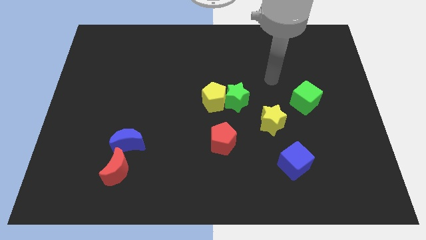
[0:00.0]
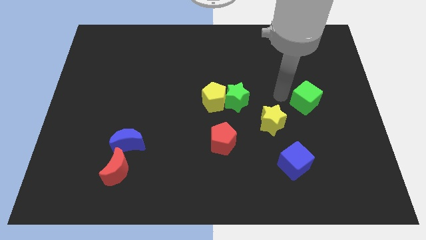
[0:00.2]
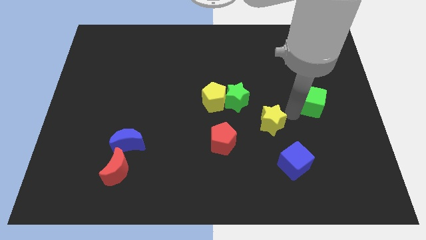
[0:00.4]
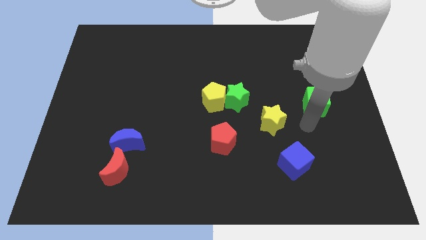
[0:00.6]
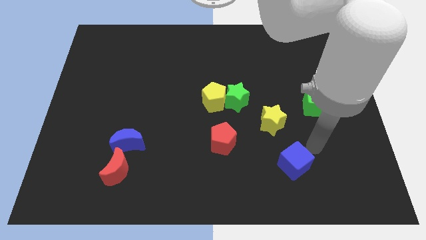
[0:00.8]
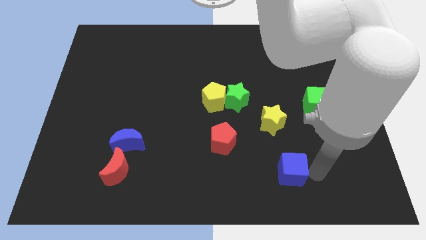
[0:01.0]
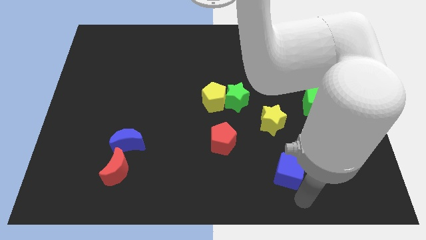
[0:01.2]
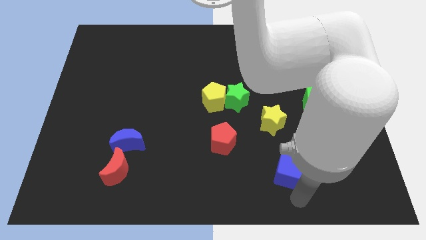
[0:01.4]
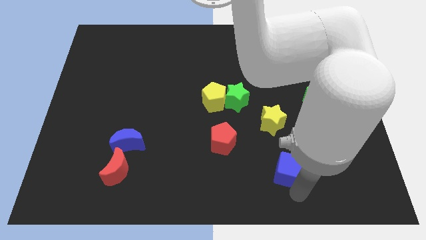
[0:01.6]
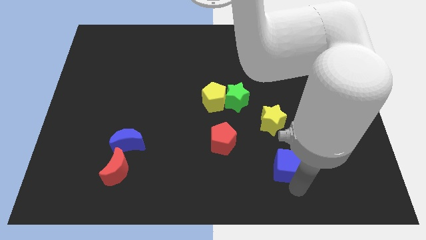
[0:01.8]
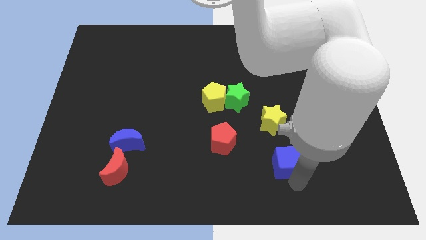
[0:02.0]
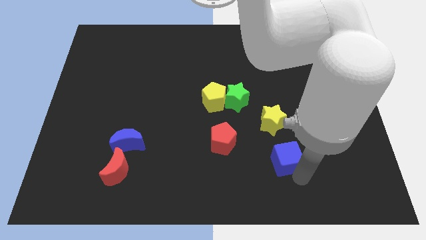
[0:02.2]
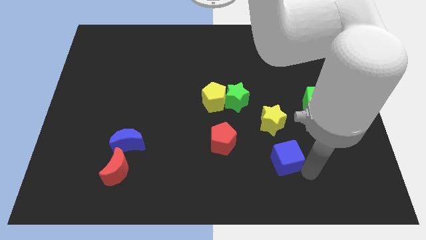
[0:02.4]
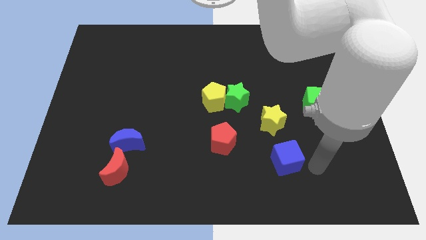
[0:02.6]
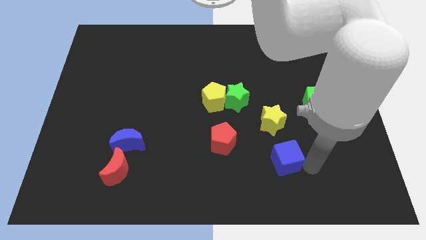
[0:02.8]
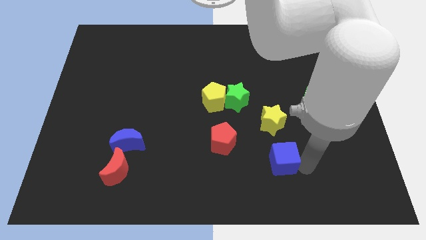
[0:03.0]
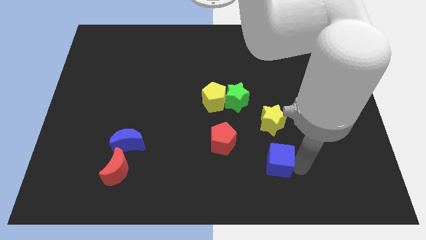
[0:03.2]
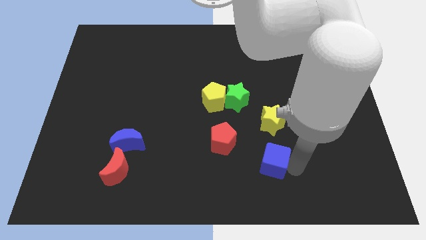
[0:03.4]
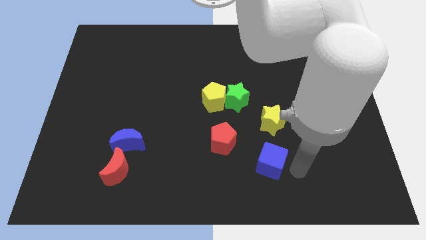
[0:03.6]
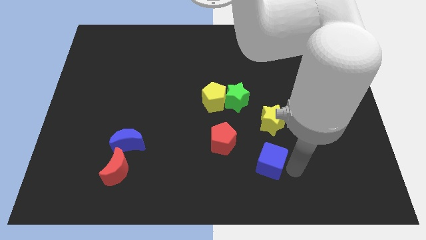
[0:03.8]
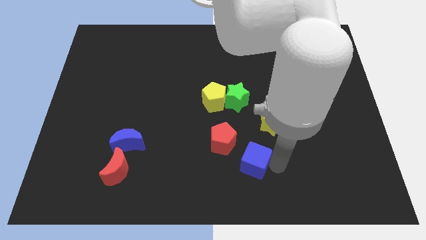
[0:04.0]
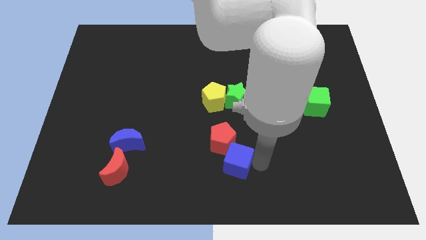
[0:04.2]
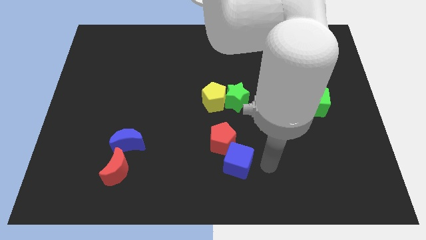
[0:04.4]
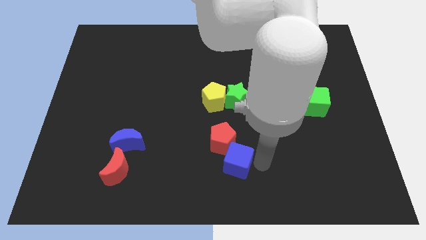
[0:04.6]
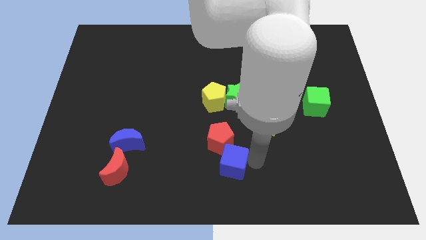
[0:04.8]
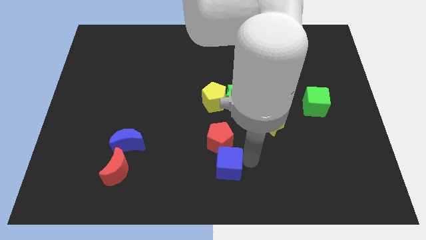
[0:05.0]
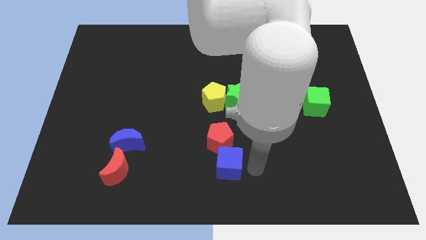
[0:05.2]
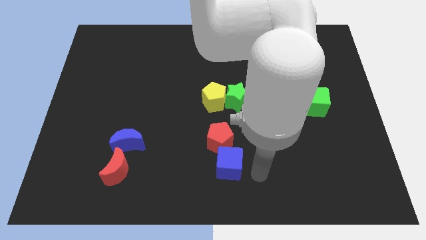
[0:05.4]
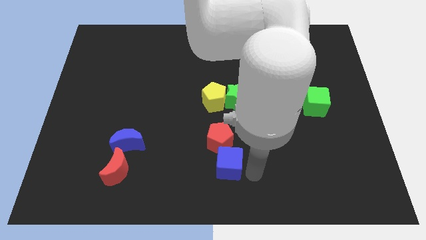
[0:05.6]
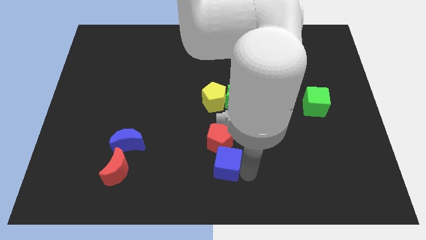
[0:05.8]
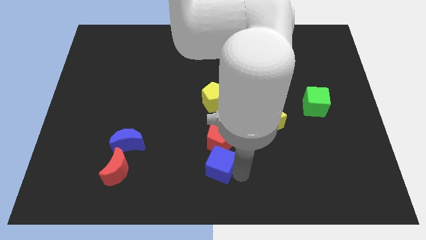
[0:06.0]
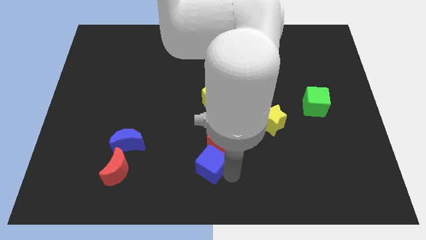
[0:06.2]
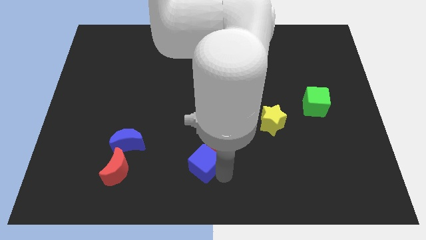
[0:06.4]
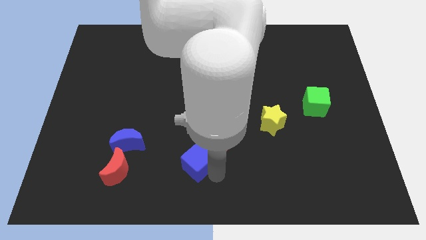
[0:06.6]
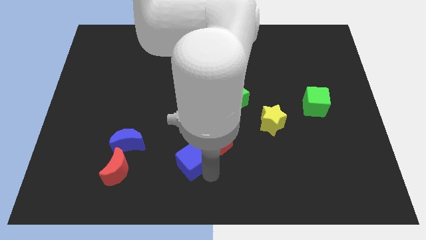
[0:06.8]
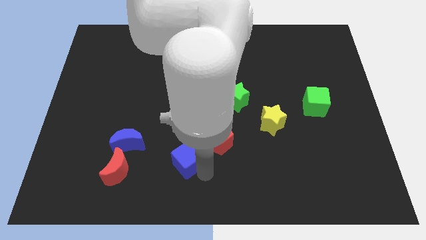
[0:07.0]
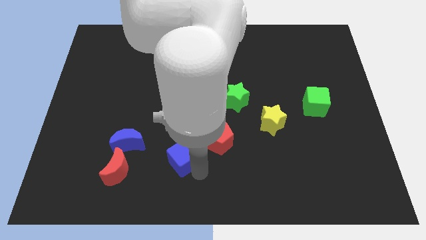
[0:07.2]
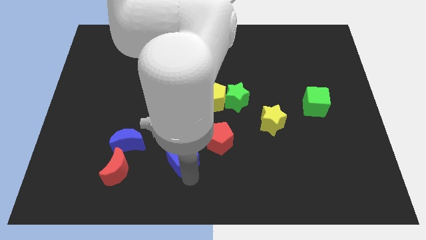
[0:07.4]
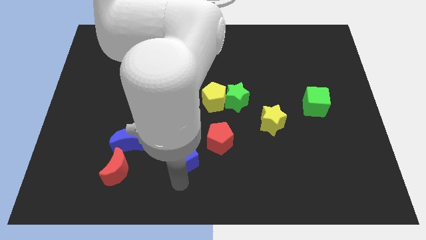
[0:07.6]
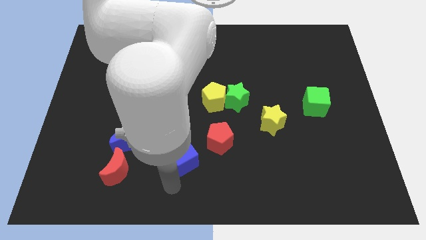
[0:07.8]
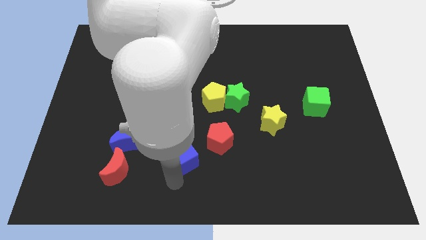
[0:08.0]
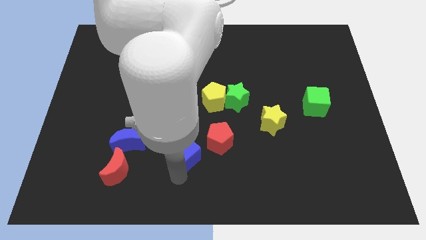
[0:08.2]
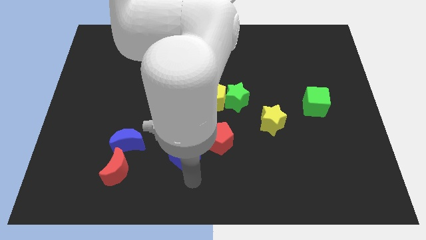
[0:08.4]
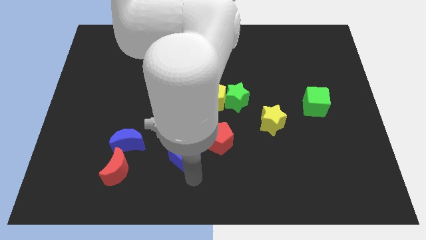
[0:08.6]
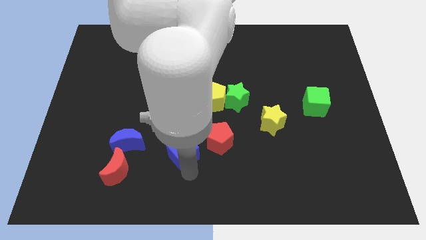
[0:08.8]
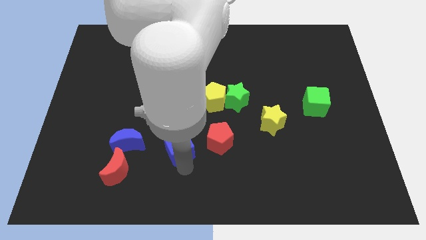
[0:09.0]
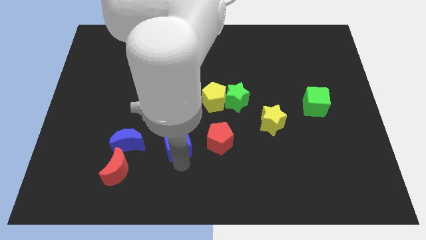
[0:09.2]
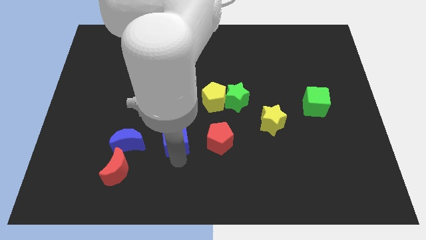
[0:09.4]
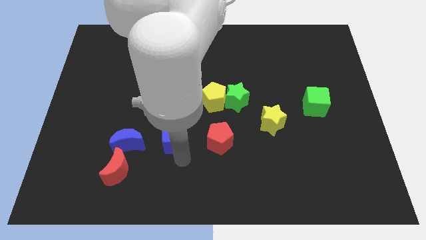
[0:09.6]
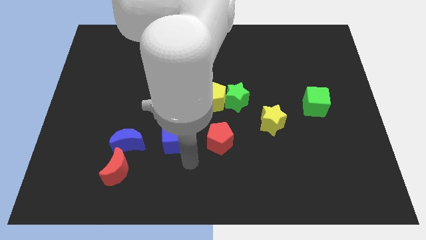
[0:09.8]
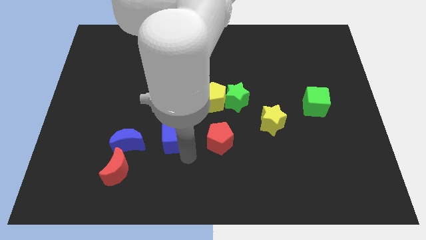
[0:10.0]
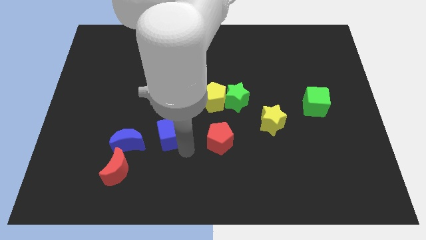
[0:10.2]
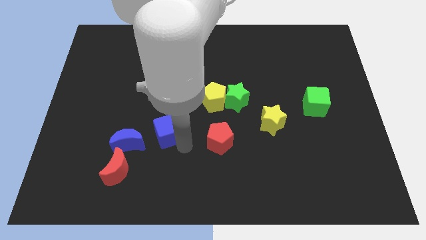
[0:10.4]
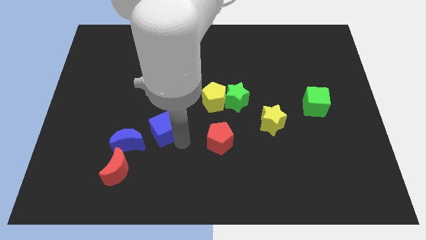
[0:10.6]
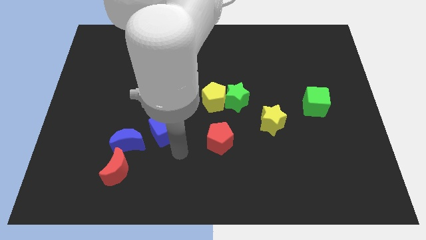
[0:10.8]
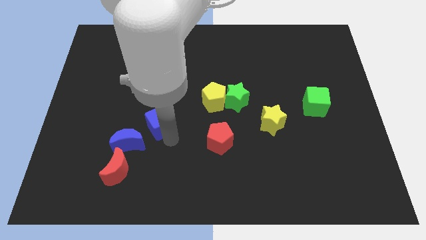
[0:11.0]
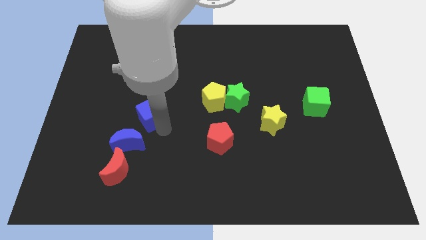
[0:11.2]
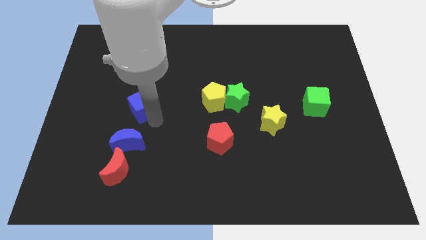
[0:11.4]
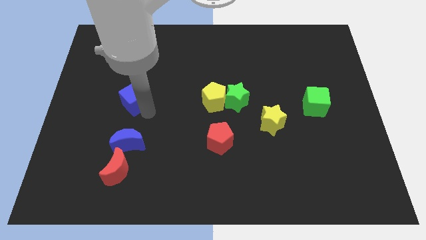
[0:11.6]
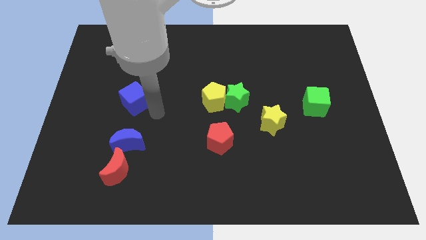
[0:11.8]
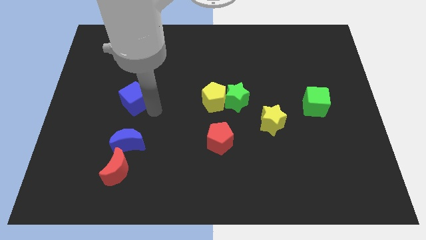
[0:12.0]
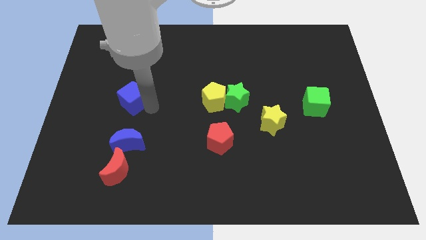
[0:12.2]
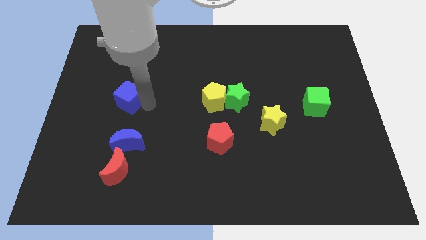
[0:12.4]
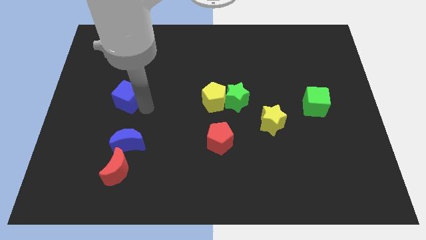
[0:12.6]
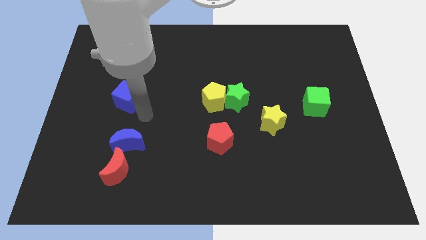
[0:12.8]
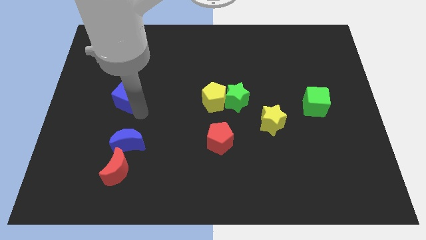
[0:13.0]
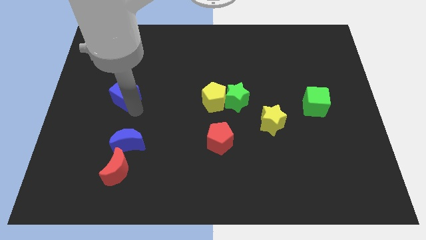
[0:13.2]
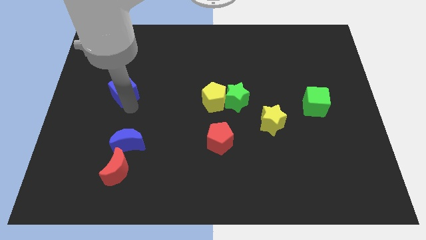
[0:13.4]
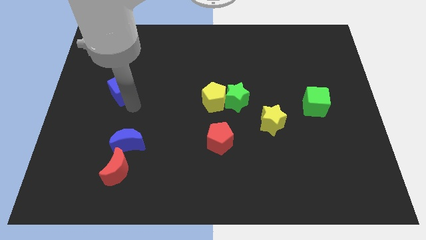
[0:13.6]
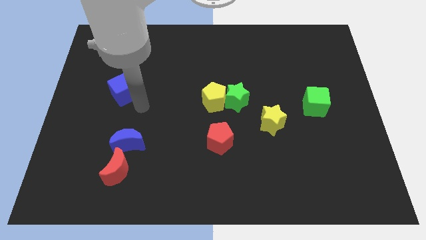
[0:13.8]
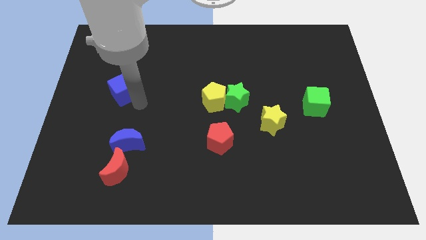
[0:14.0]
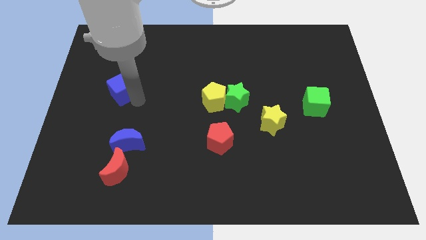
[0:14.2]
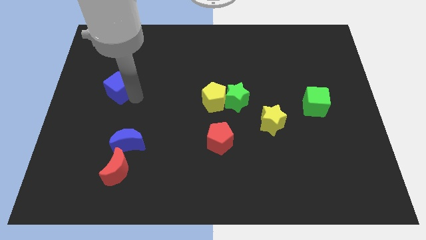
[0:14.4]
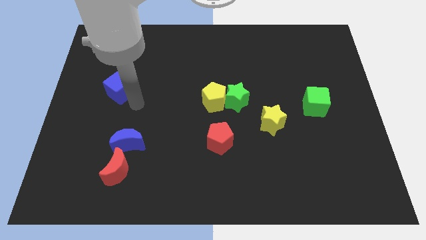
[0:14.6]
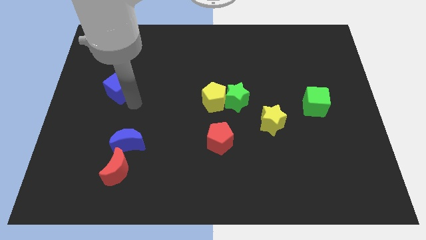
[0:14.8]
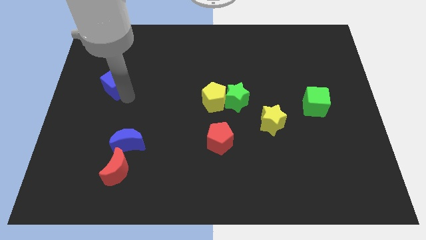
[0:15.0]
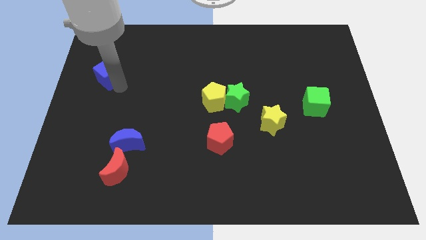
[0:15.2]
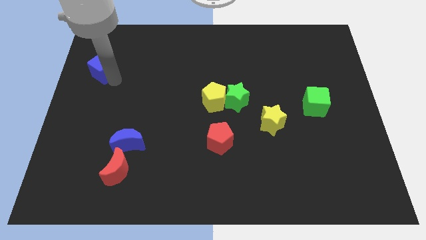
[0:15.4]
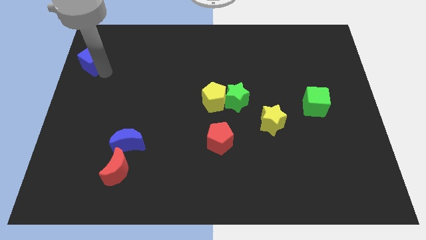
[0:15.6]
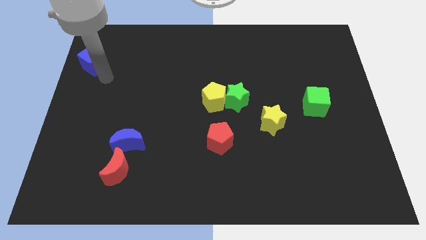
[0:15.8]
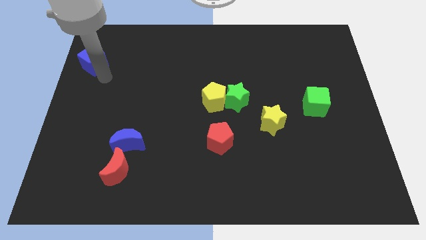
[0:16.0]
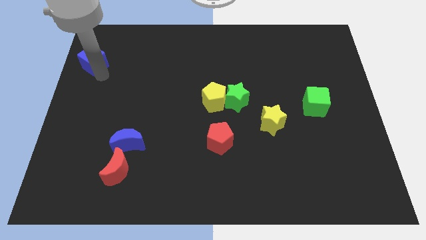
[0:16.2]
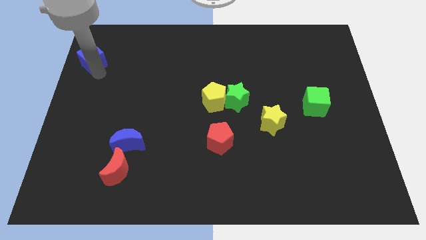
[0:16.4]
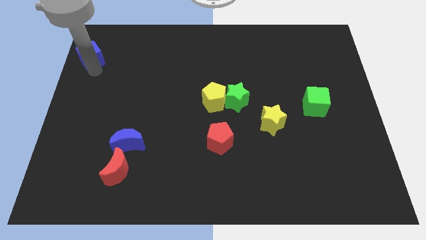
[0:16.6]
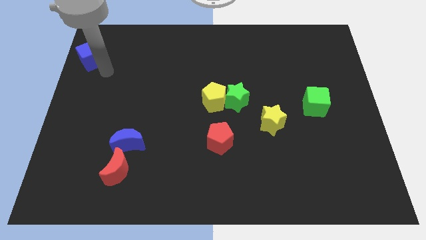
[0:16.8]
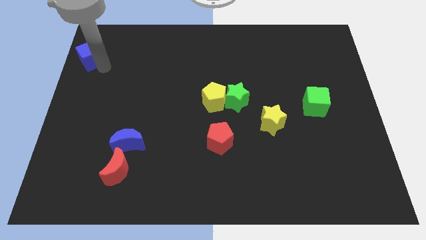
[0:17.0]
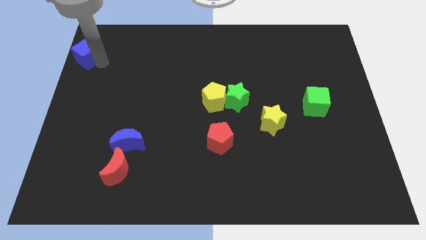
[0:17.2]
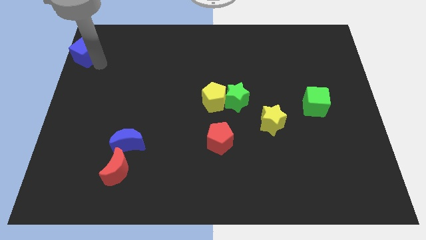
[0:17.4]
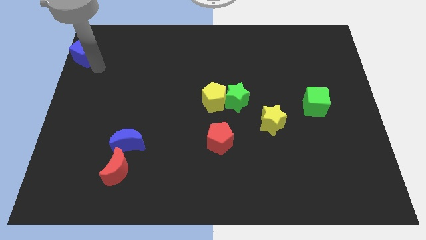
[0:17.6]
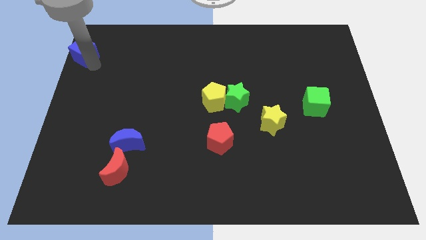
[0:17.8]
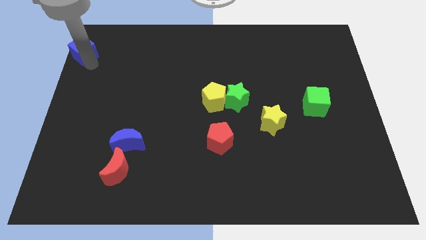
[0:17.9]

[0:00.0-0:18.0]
put the blue cube to the top left
